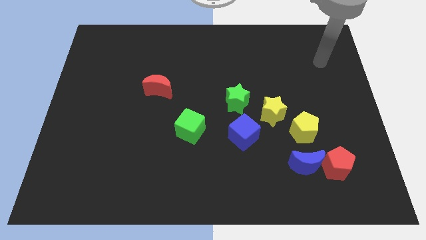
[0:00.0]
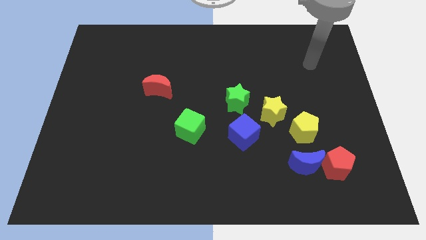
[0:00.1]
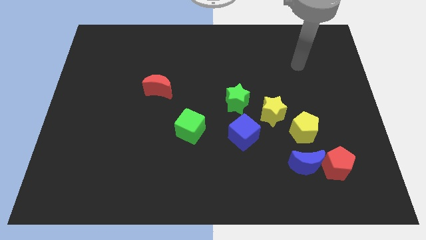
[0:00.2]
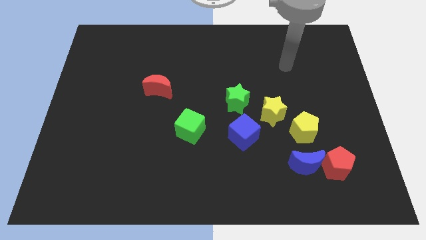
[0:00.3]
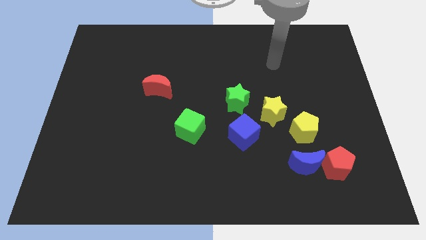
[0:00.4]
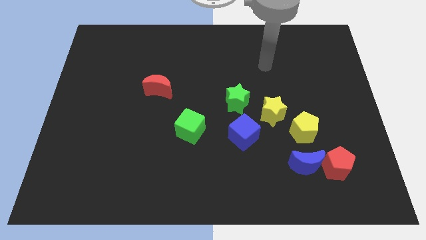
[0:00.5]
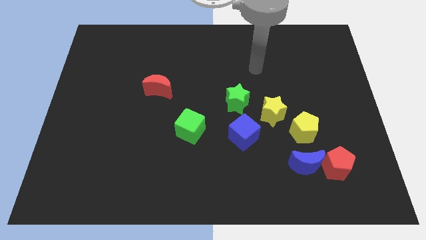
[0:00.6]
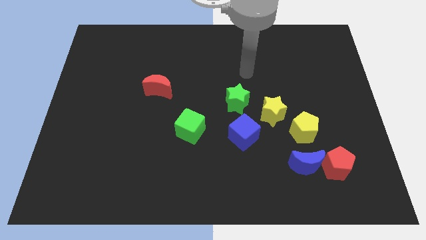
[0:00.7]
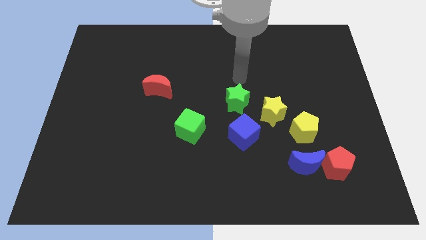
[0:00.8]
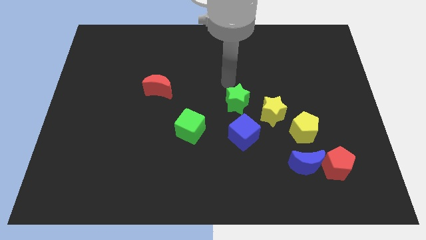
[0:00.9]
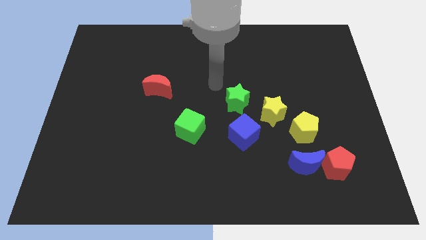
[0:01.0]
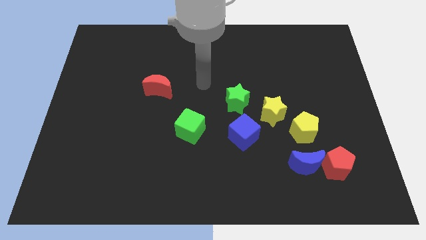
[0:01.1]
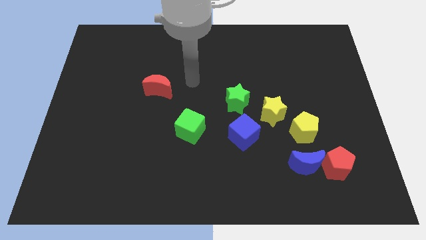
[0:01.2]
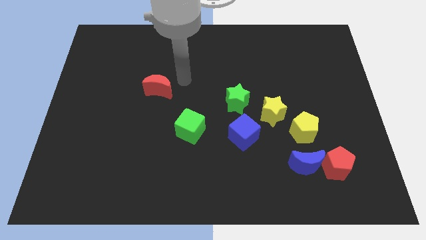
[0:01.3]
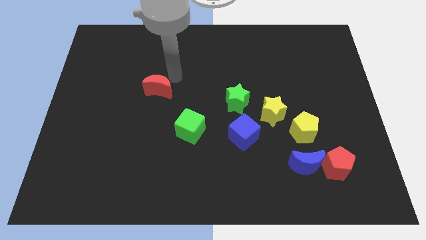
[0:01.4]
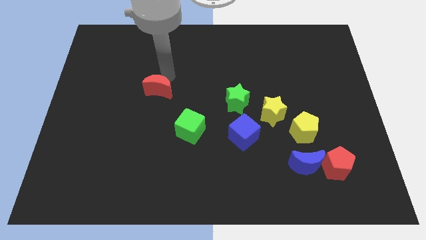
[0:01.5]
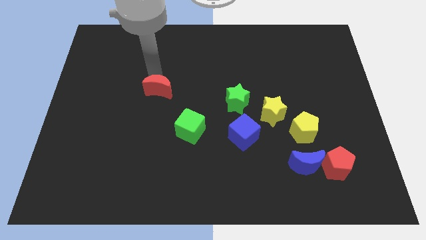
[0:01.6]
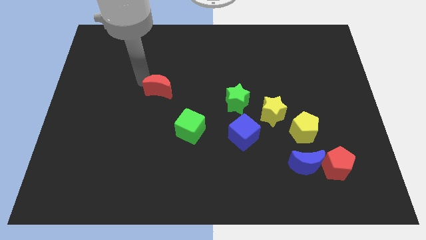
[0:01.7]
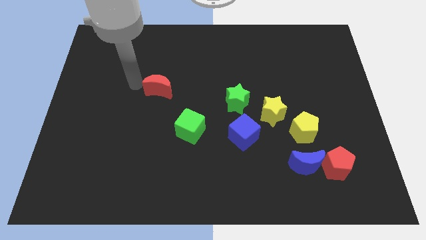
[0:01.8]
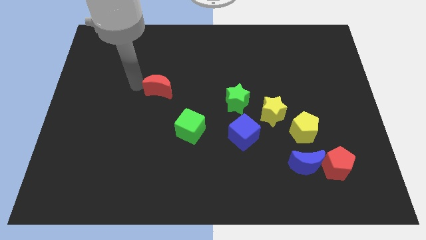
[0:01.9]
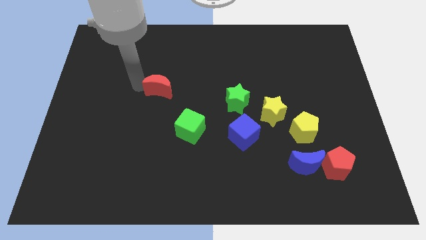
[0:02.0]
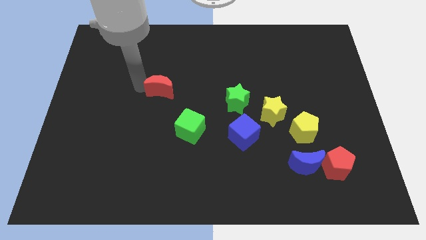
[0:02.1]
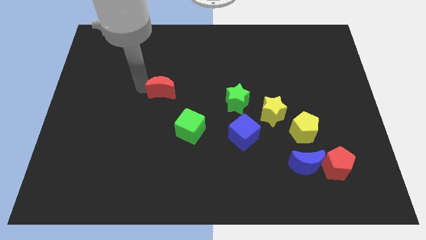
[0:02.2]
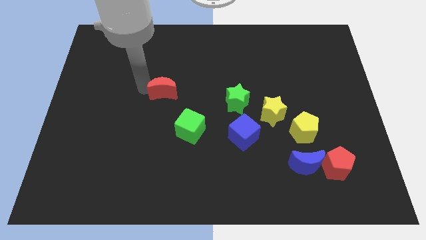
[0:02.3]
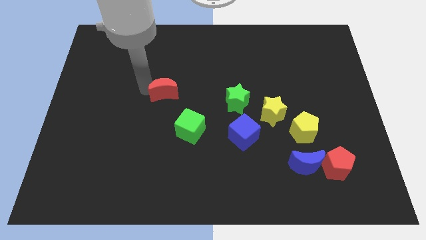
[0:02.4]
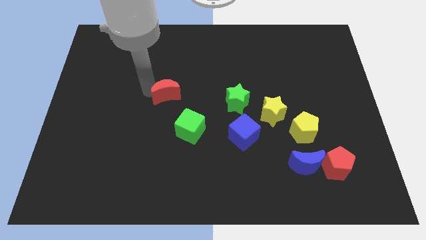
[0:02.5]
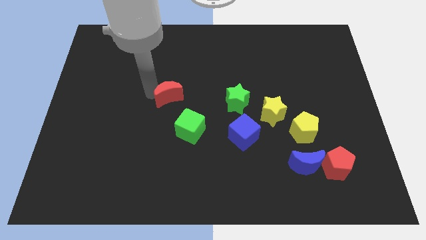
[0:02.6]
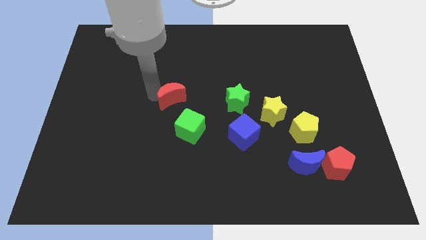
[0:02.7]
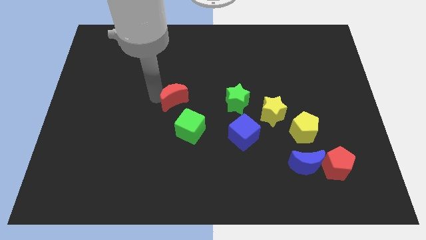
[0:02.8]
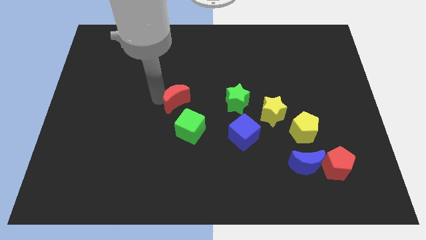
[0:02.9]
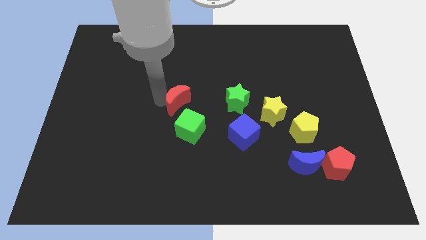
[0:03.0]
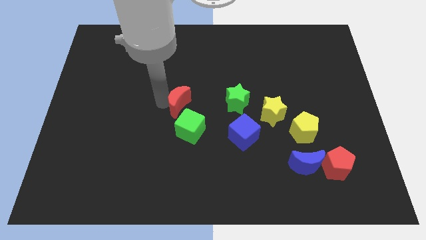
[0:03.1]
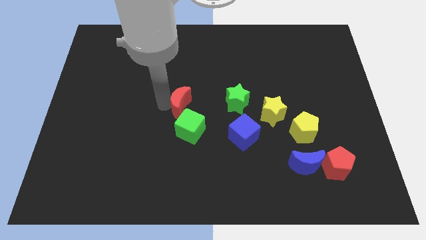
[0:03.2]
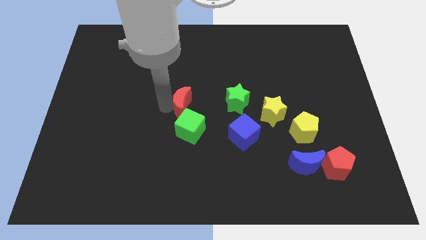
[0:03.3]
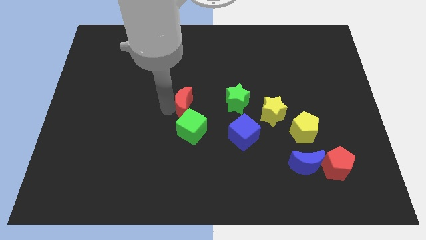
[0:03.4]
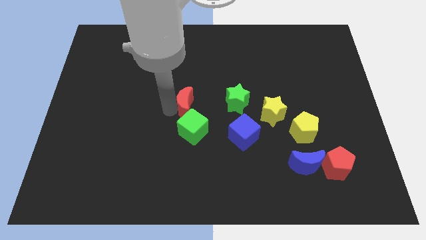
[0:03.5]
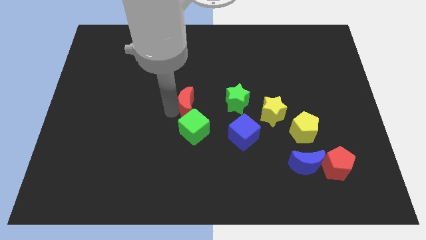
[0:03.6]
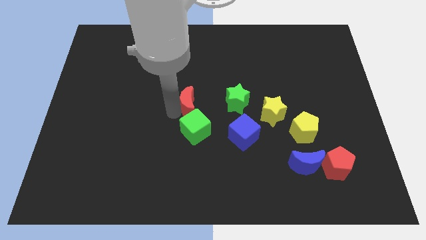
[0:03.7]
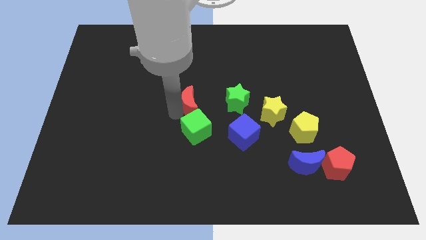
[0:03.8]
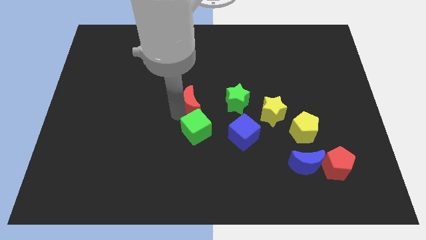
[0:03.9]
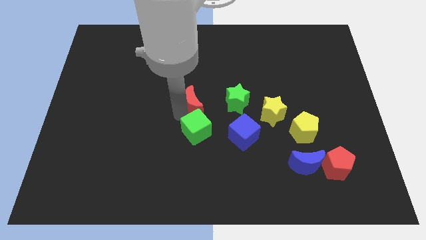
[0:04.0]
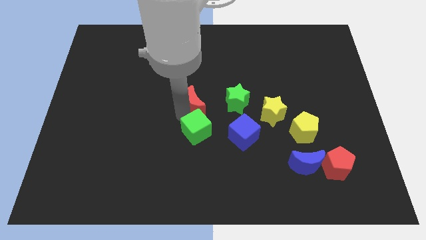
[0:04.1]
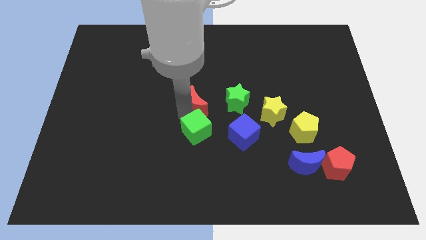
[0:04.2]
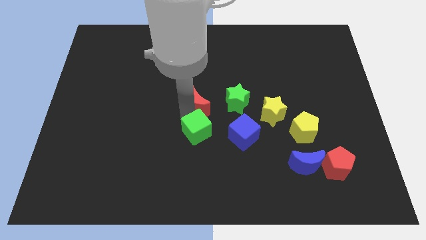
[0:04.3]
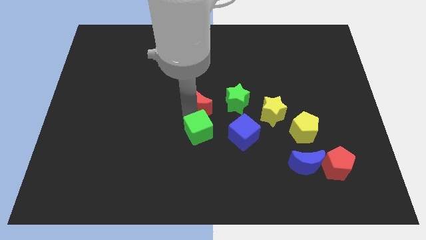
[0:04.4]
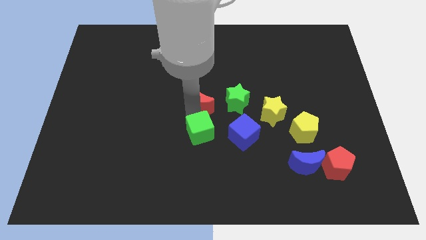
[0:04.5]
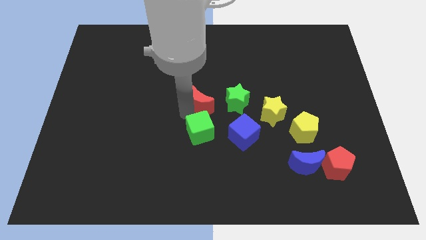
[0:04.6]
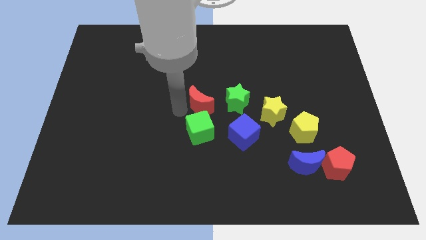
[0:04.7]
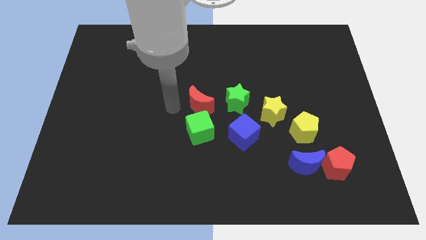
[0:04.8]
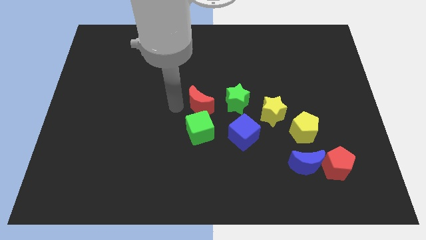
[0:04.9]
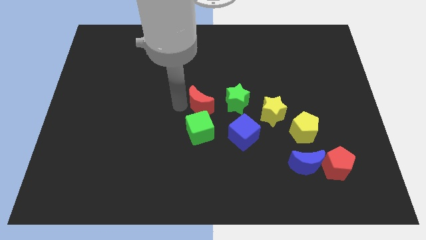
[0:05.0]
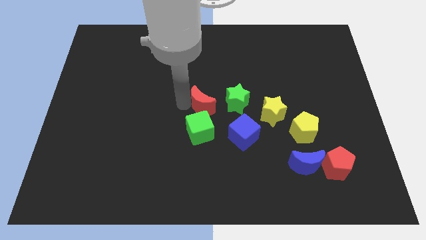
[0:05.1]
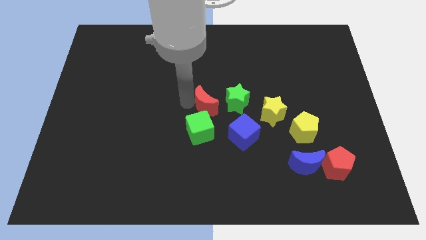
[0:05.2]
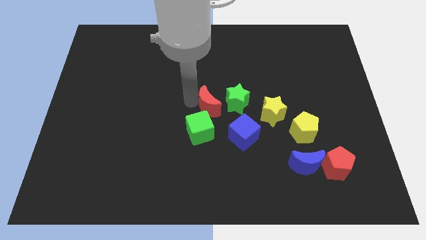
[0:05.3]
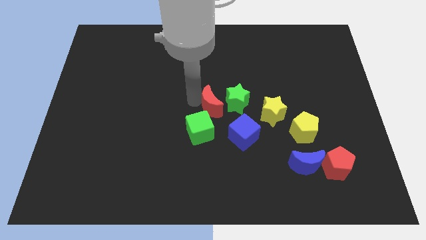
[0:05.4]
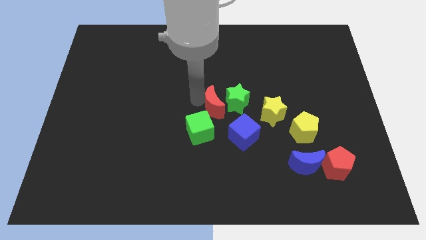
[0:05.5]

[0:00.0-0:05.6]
slide the red moon to the green star

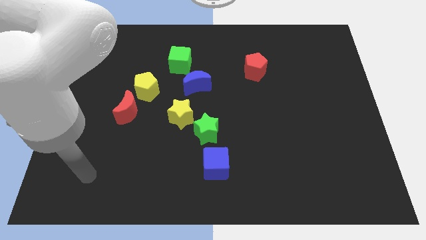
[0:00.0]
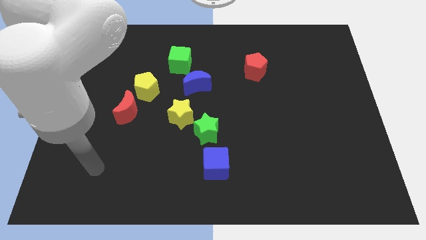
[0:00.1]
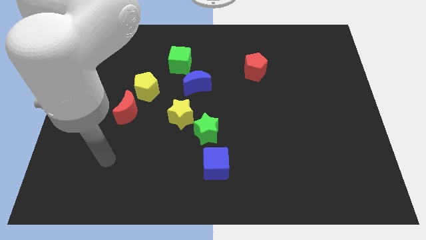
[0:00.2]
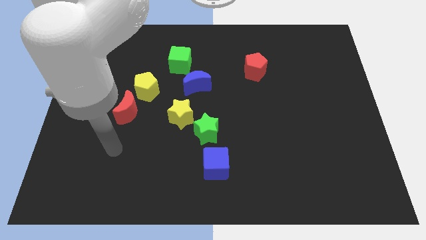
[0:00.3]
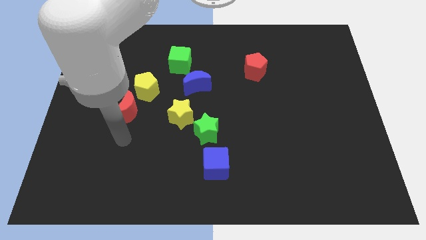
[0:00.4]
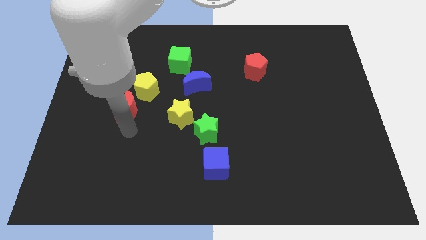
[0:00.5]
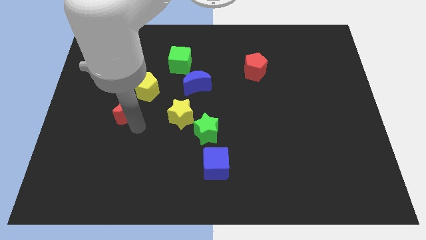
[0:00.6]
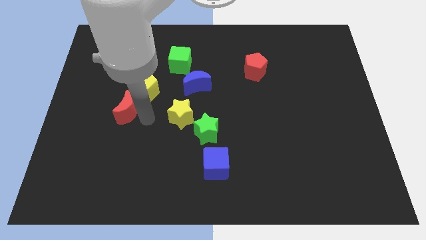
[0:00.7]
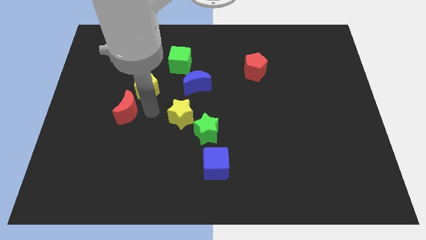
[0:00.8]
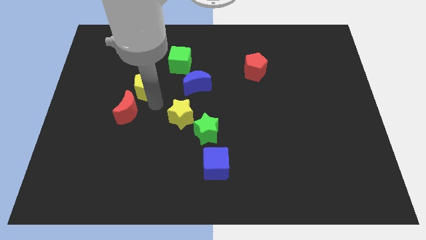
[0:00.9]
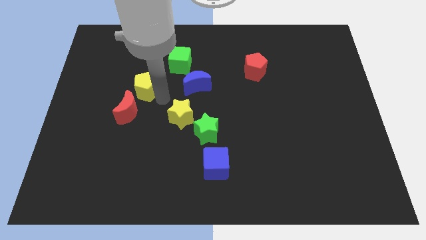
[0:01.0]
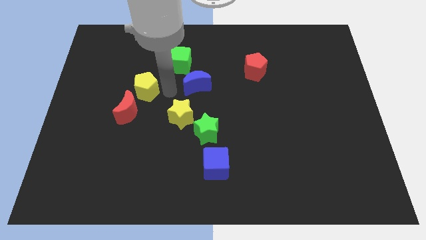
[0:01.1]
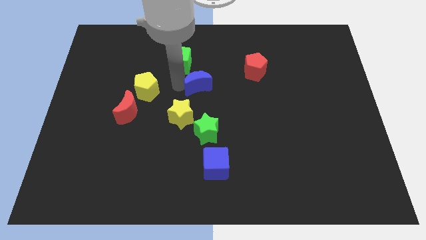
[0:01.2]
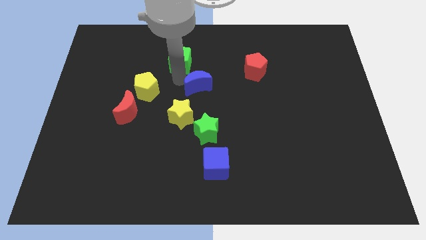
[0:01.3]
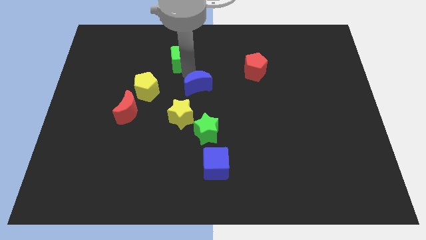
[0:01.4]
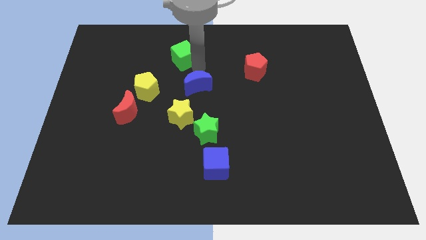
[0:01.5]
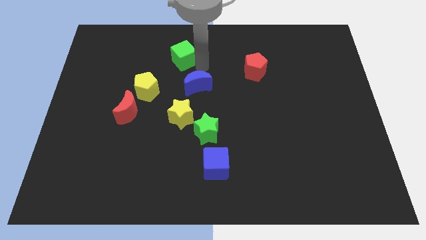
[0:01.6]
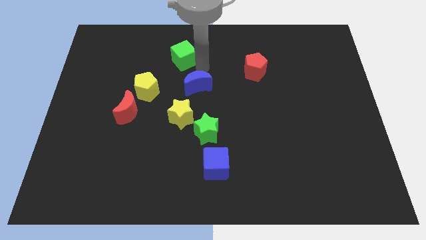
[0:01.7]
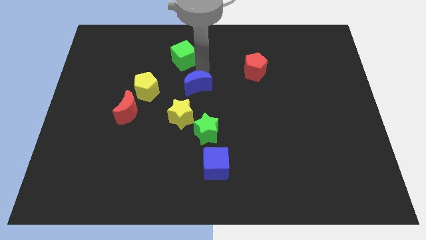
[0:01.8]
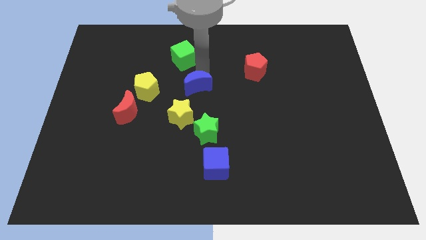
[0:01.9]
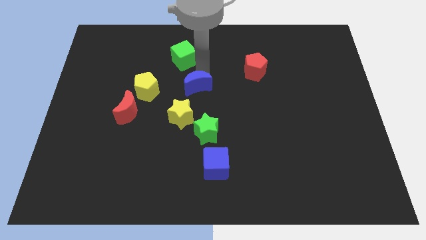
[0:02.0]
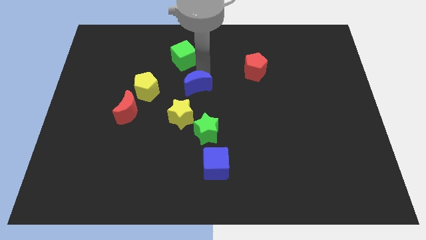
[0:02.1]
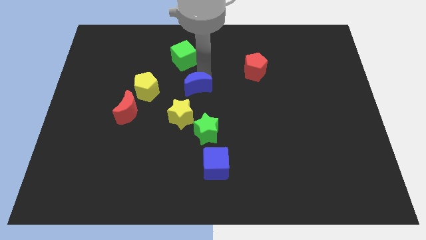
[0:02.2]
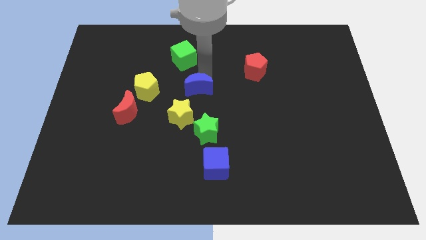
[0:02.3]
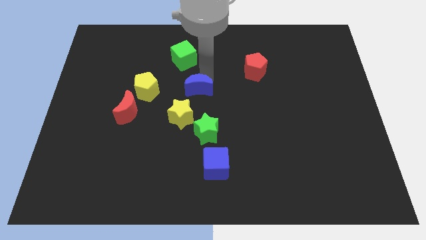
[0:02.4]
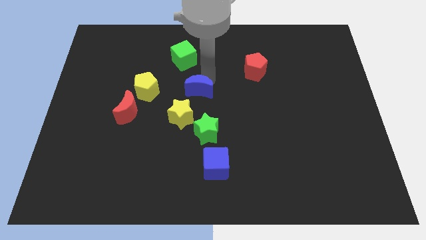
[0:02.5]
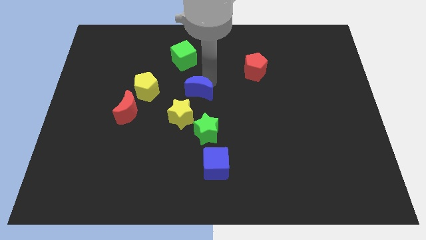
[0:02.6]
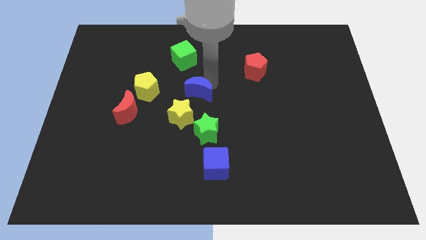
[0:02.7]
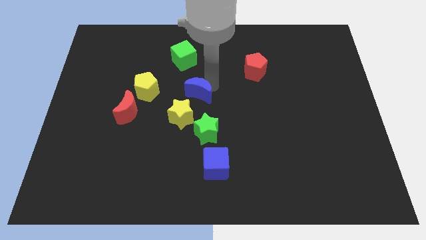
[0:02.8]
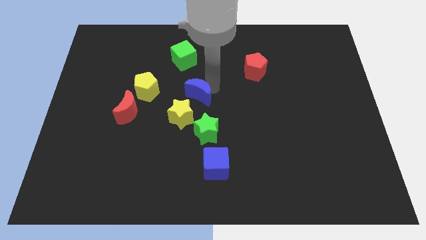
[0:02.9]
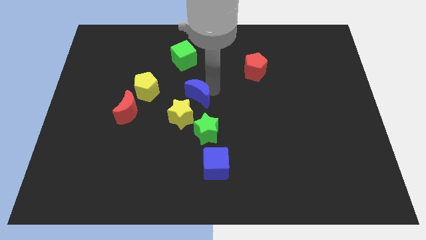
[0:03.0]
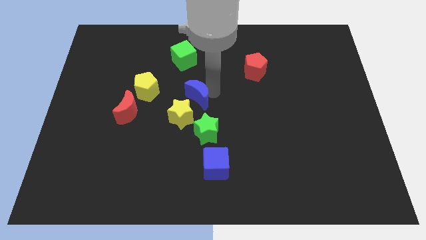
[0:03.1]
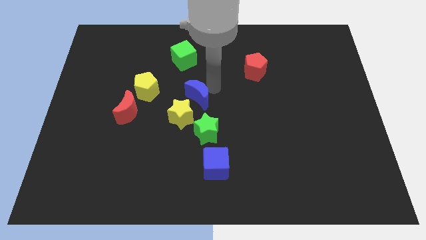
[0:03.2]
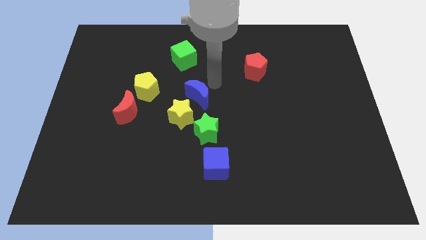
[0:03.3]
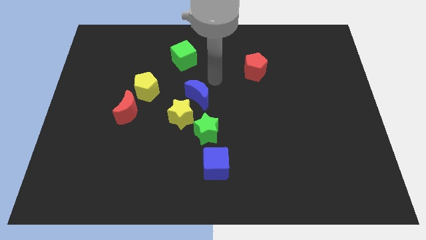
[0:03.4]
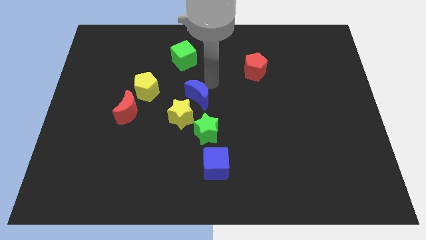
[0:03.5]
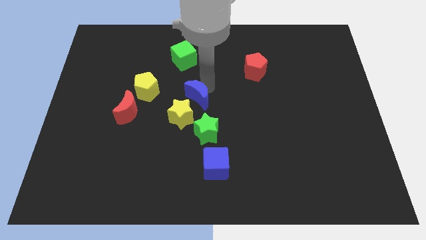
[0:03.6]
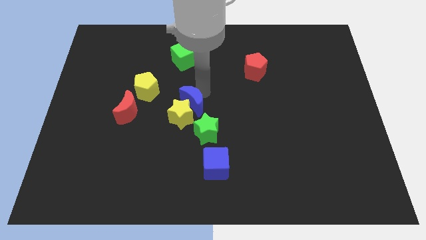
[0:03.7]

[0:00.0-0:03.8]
slide the blue moon towards the yellow star
